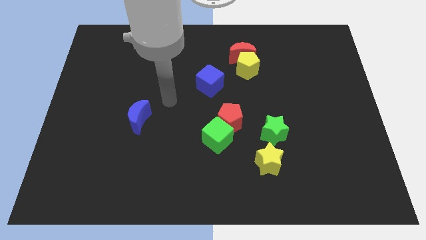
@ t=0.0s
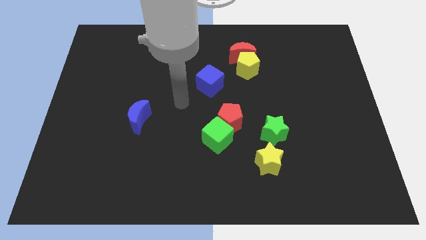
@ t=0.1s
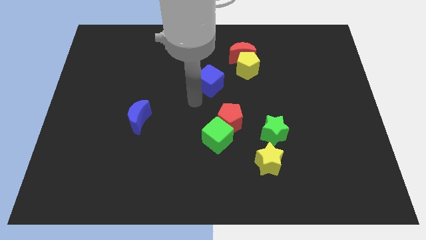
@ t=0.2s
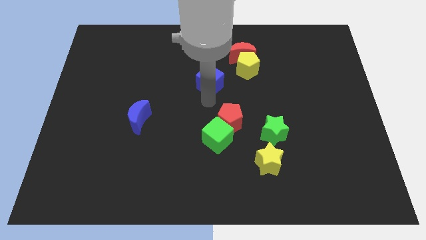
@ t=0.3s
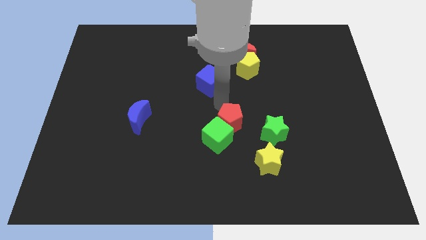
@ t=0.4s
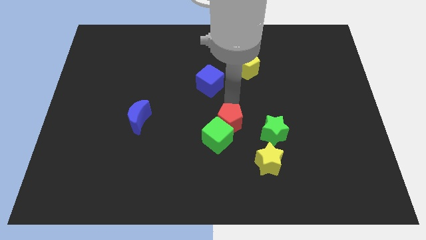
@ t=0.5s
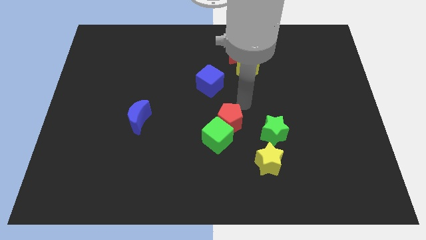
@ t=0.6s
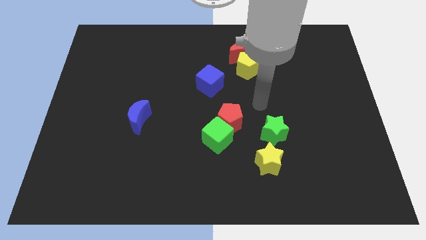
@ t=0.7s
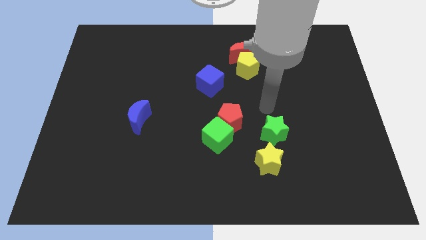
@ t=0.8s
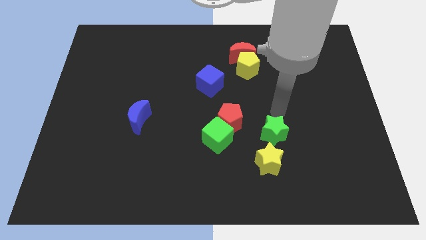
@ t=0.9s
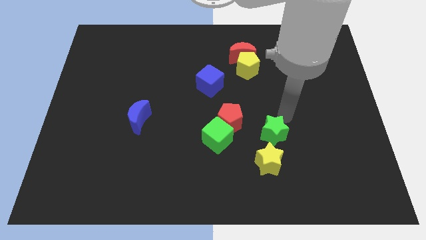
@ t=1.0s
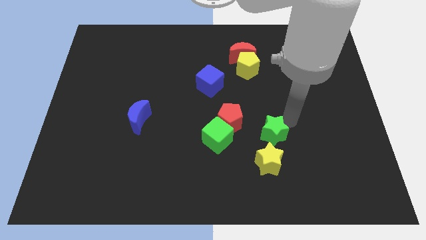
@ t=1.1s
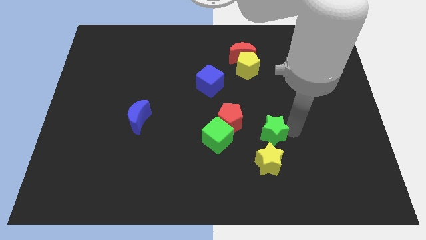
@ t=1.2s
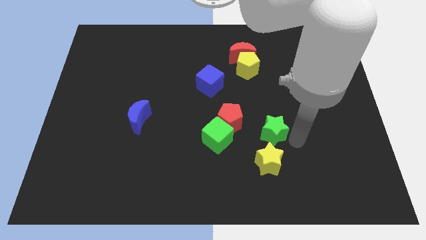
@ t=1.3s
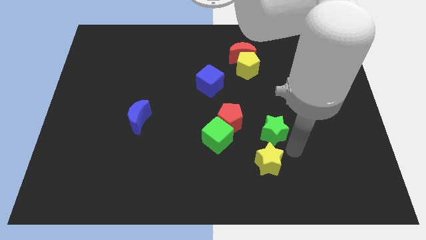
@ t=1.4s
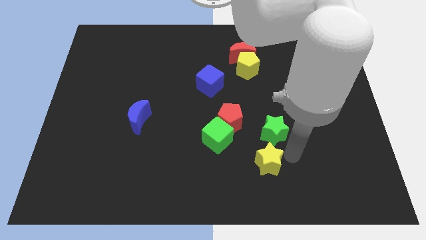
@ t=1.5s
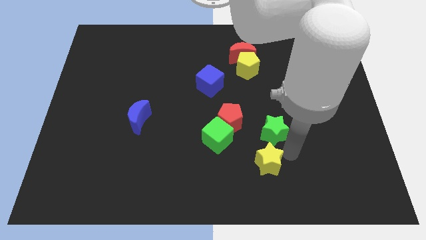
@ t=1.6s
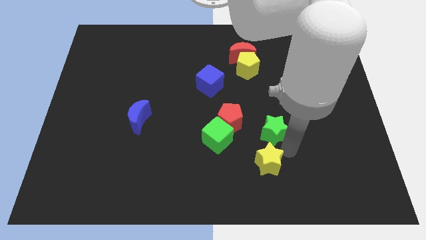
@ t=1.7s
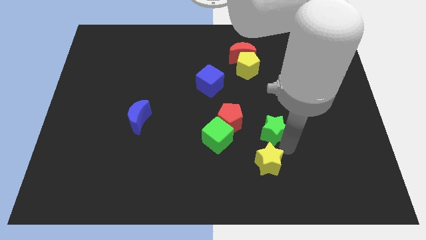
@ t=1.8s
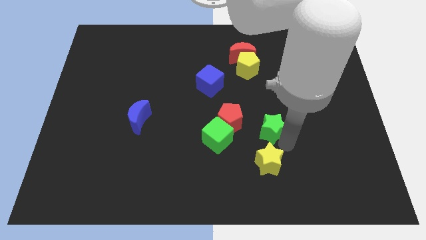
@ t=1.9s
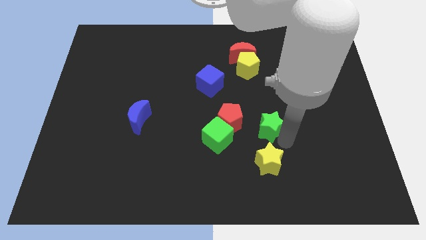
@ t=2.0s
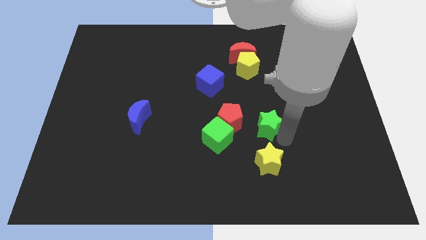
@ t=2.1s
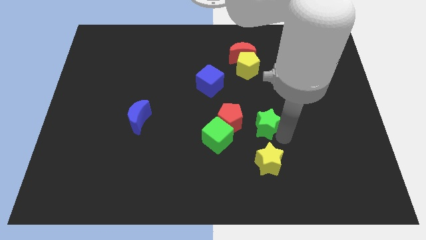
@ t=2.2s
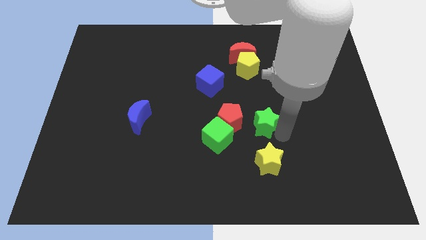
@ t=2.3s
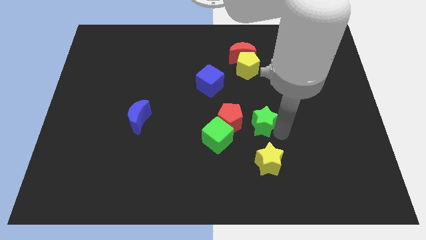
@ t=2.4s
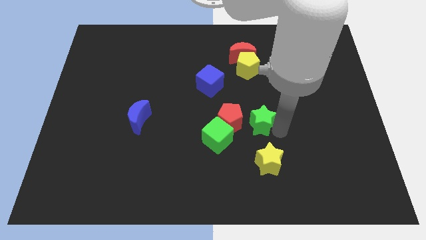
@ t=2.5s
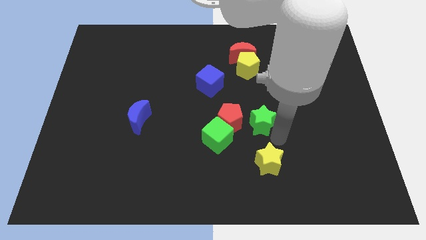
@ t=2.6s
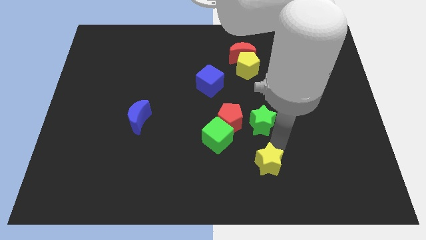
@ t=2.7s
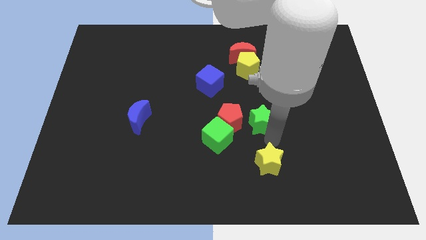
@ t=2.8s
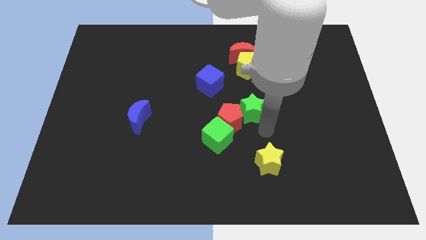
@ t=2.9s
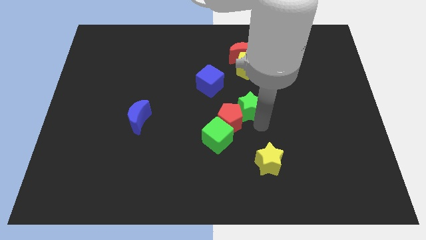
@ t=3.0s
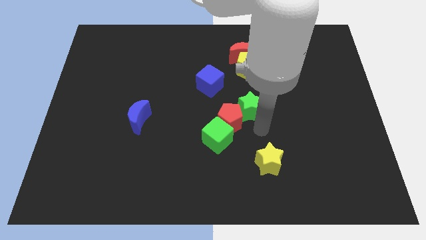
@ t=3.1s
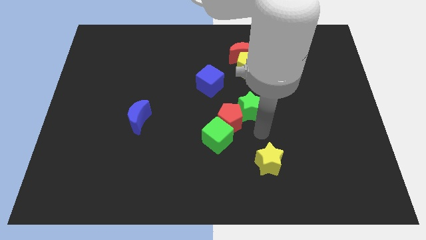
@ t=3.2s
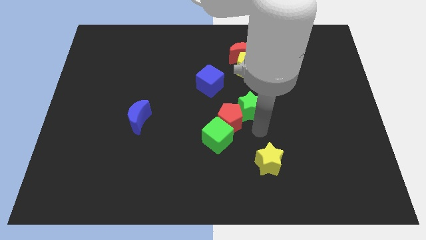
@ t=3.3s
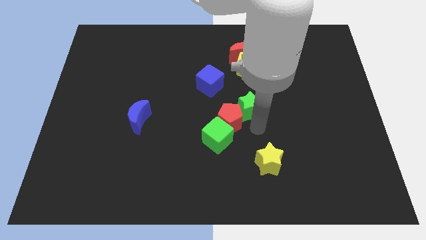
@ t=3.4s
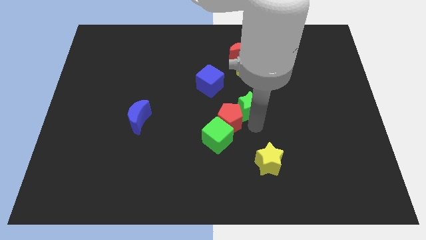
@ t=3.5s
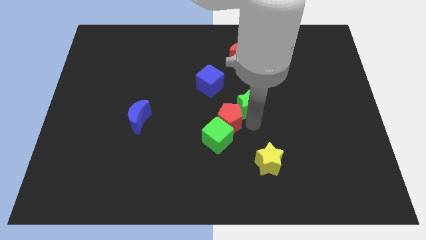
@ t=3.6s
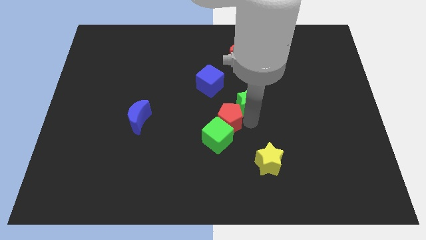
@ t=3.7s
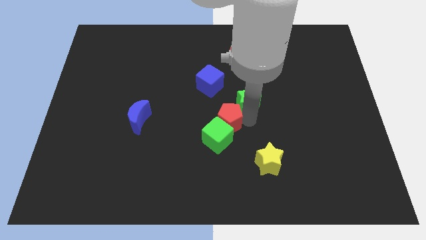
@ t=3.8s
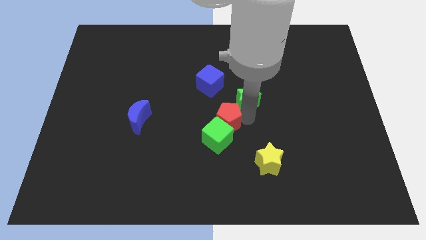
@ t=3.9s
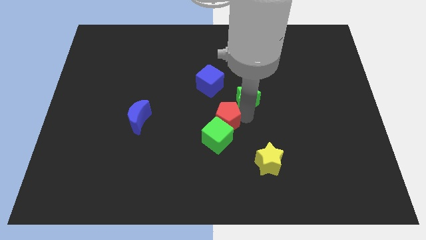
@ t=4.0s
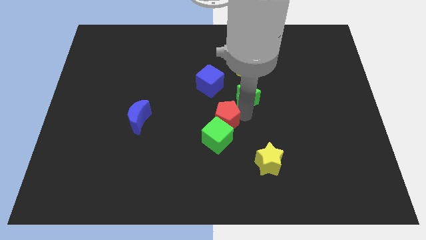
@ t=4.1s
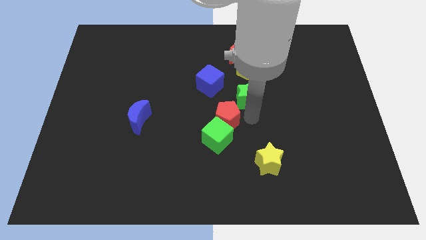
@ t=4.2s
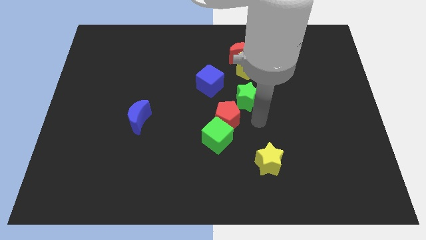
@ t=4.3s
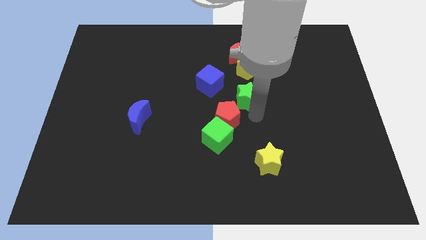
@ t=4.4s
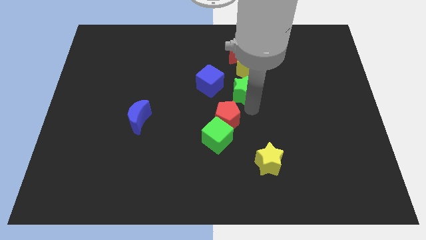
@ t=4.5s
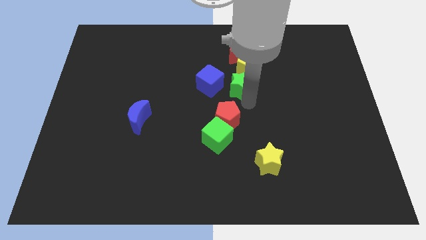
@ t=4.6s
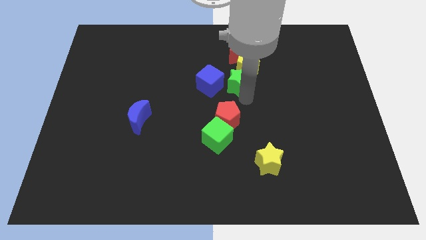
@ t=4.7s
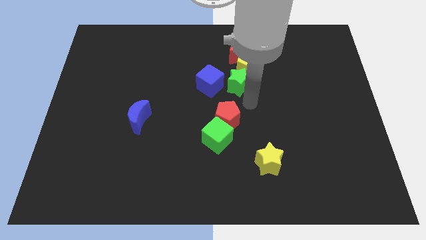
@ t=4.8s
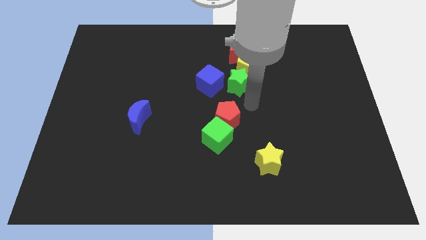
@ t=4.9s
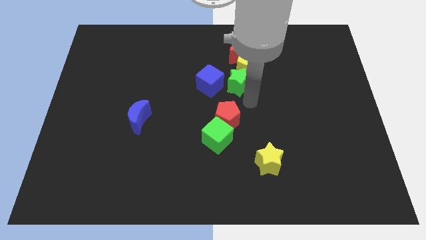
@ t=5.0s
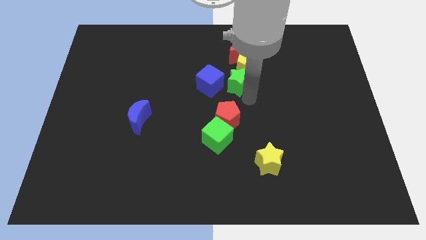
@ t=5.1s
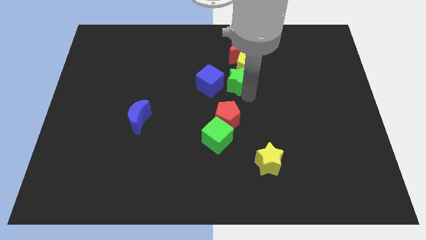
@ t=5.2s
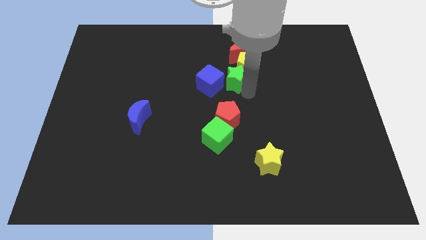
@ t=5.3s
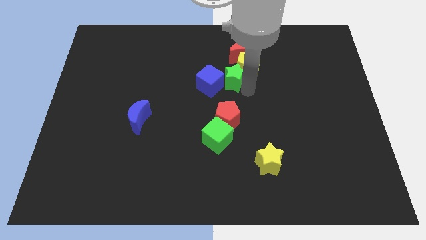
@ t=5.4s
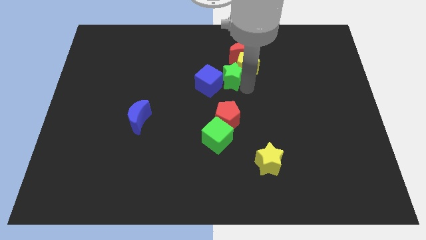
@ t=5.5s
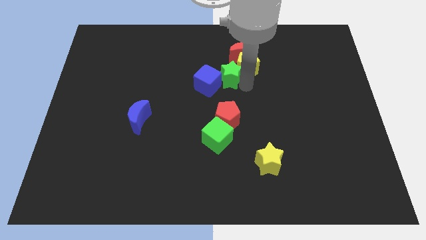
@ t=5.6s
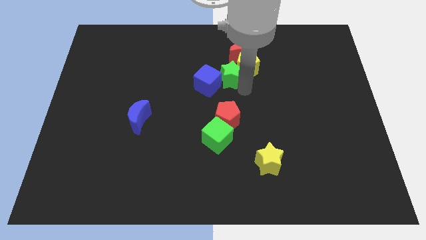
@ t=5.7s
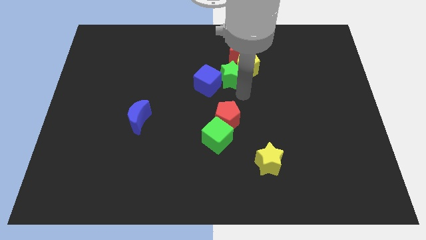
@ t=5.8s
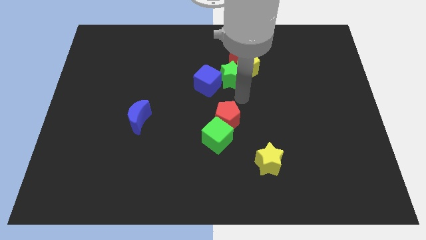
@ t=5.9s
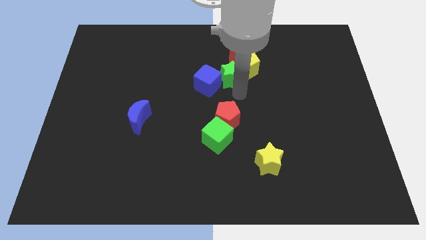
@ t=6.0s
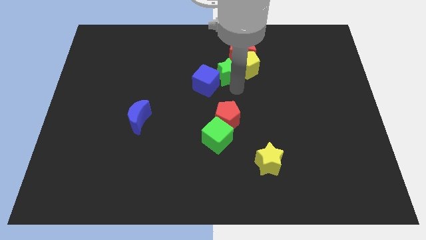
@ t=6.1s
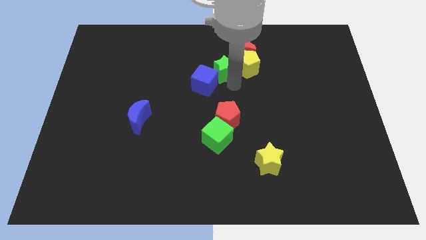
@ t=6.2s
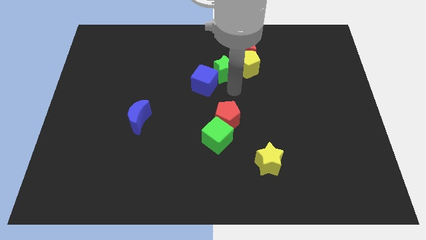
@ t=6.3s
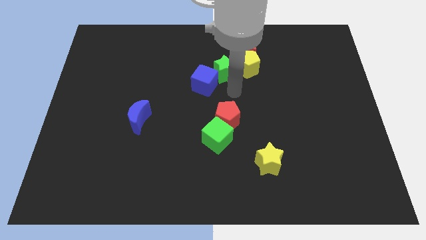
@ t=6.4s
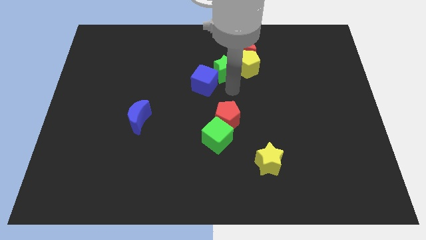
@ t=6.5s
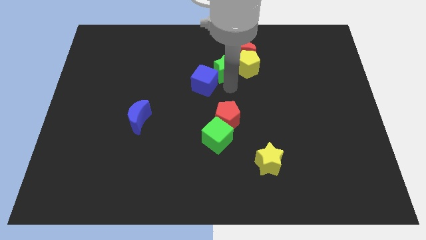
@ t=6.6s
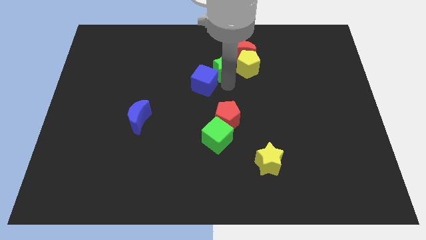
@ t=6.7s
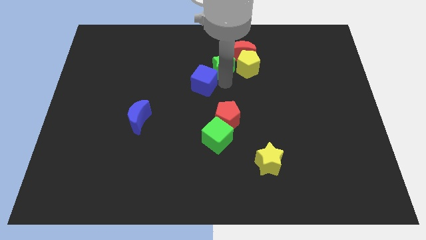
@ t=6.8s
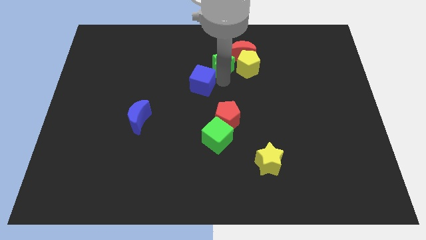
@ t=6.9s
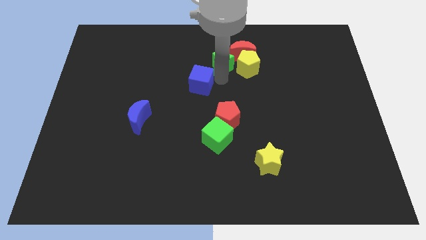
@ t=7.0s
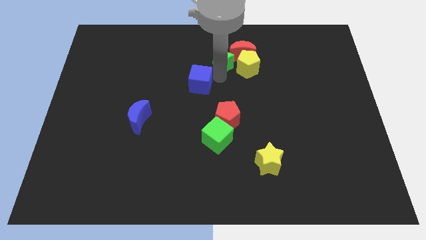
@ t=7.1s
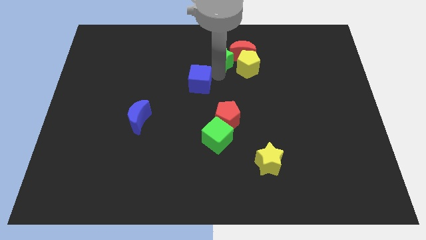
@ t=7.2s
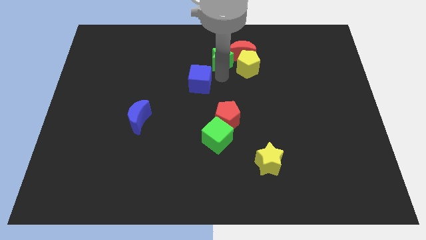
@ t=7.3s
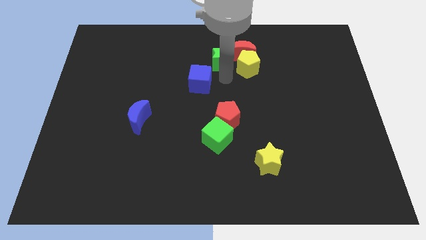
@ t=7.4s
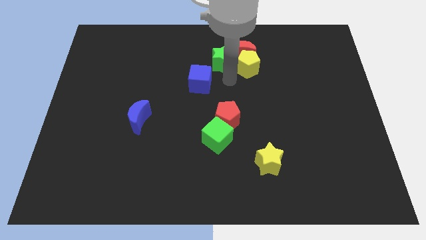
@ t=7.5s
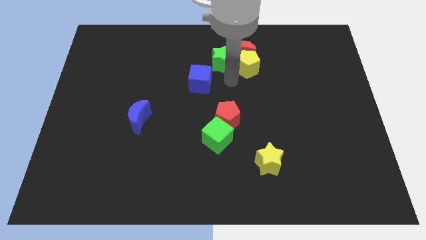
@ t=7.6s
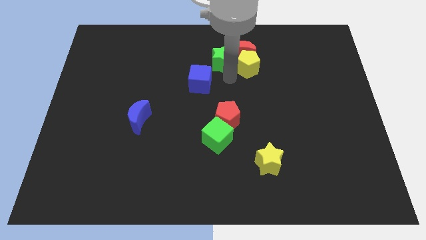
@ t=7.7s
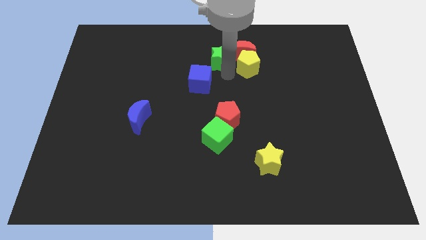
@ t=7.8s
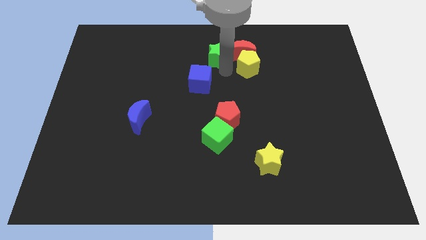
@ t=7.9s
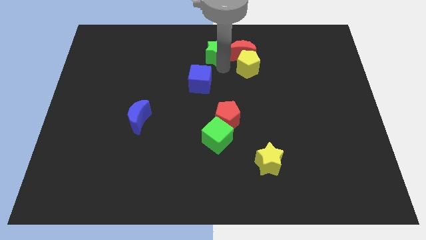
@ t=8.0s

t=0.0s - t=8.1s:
push the green star to the top
